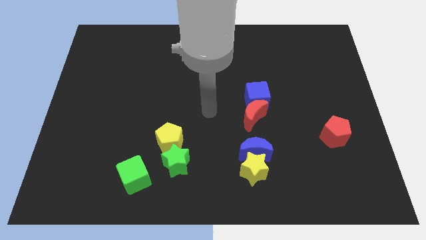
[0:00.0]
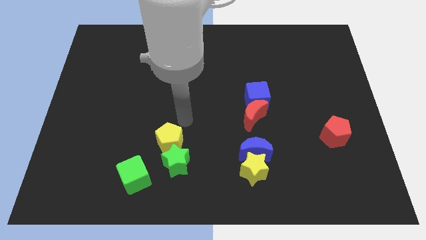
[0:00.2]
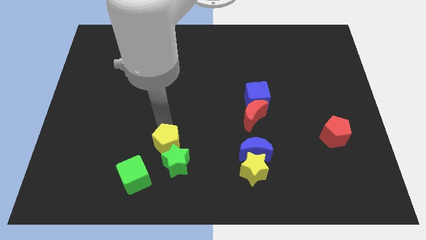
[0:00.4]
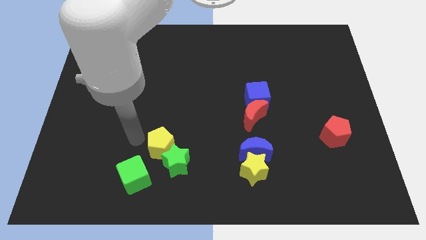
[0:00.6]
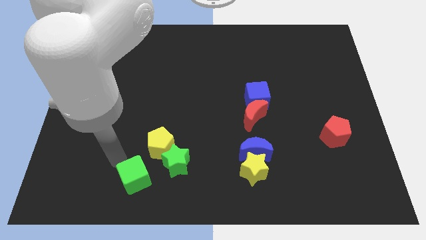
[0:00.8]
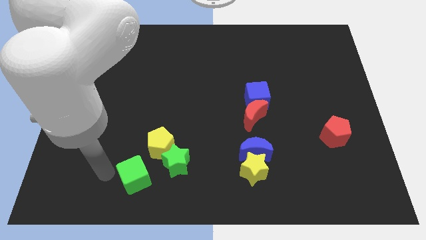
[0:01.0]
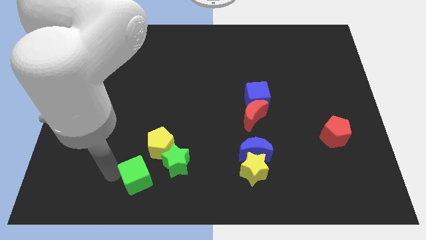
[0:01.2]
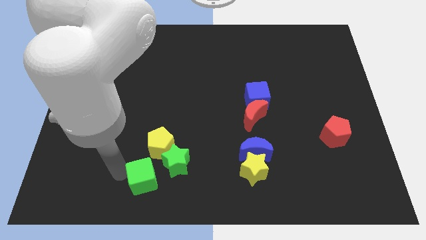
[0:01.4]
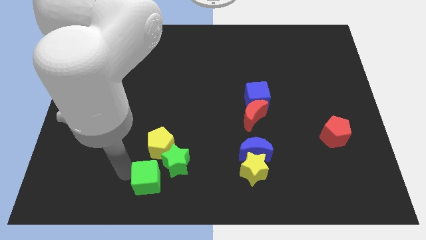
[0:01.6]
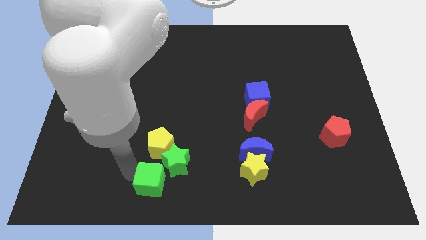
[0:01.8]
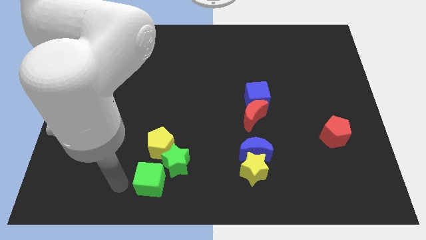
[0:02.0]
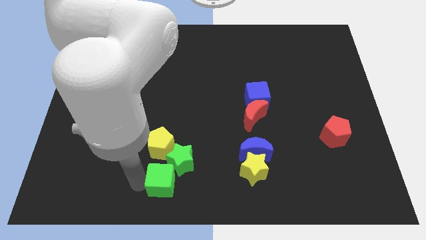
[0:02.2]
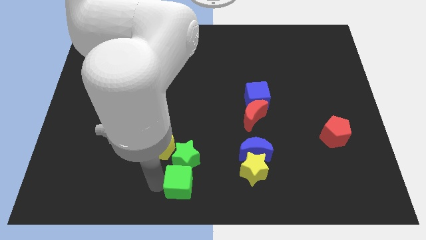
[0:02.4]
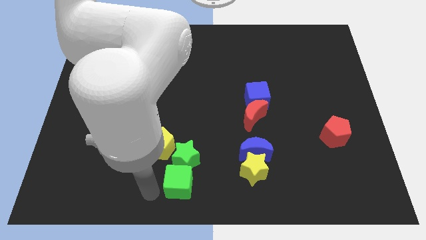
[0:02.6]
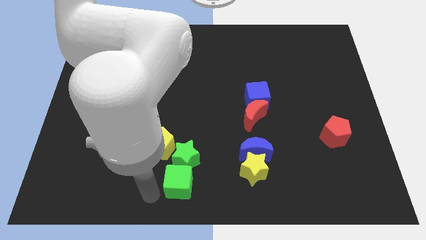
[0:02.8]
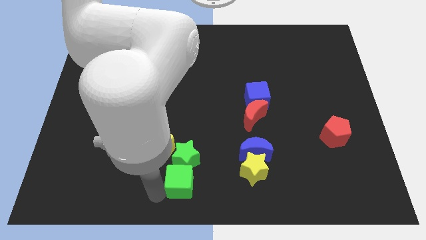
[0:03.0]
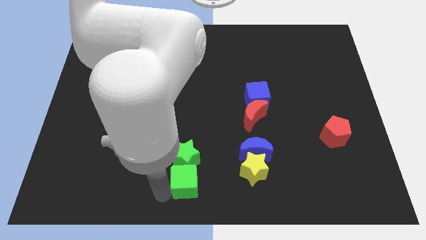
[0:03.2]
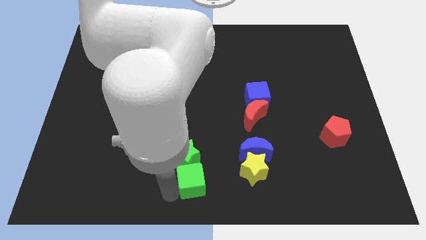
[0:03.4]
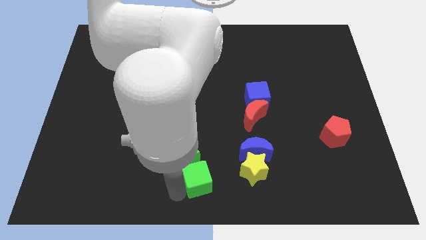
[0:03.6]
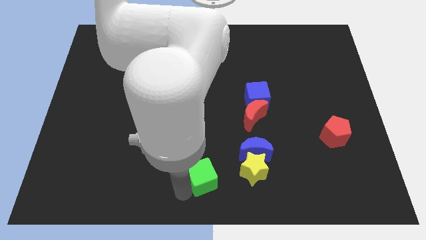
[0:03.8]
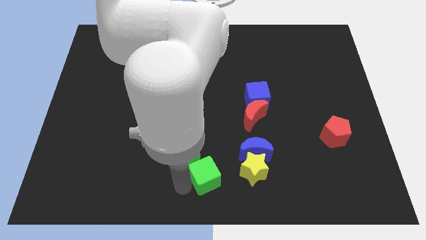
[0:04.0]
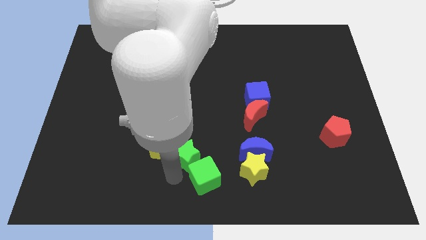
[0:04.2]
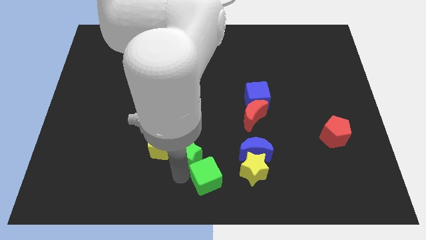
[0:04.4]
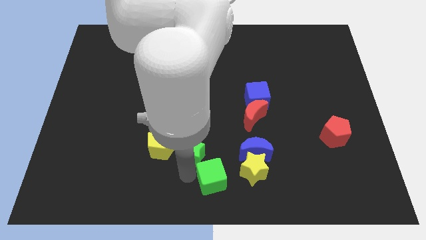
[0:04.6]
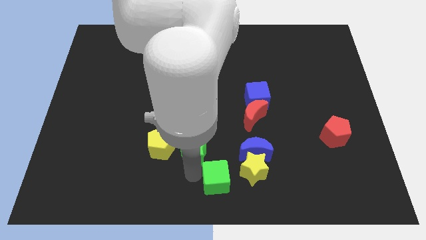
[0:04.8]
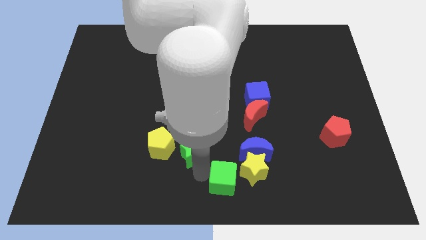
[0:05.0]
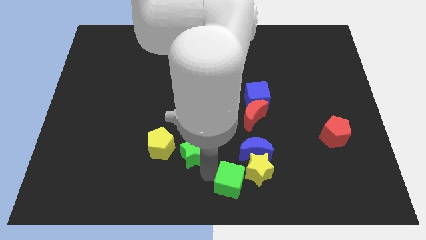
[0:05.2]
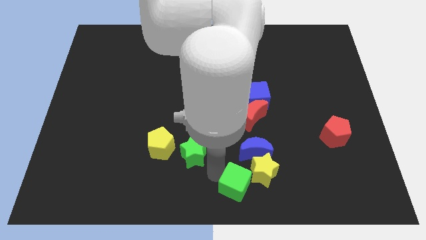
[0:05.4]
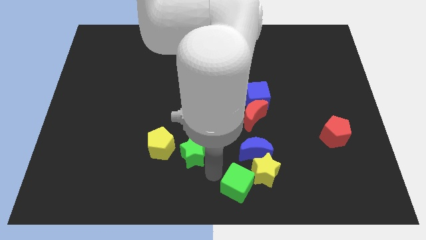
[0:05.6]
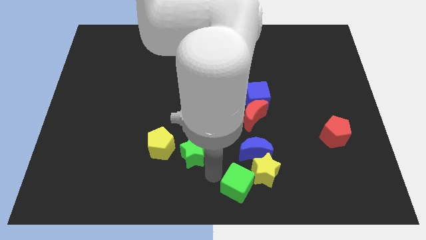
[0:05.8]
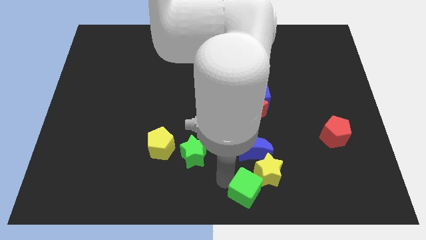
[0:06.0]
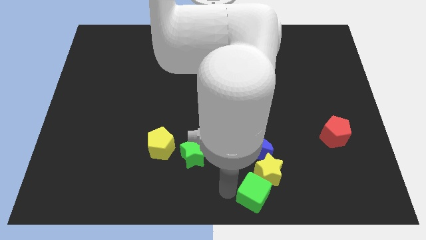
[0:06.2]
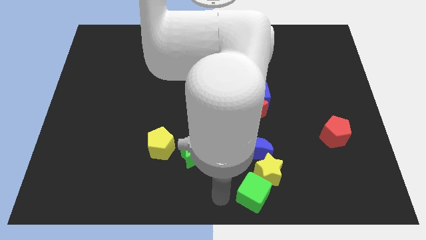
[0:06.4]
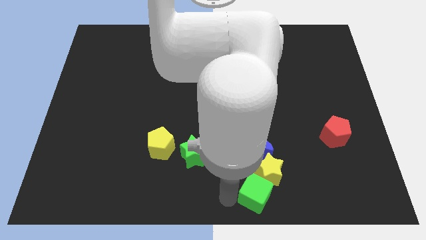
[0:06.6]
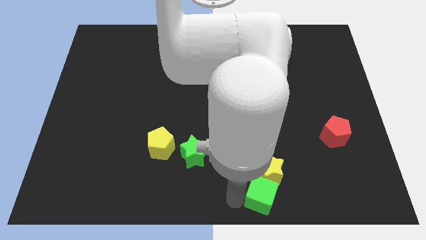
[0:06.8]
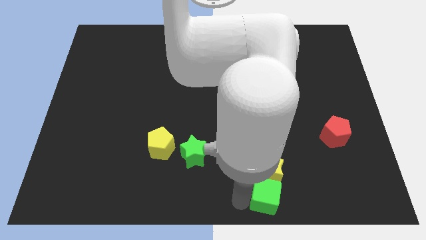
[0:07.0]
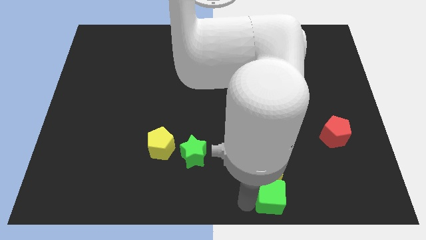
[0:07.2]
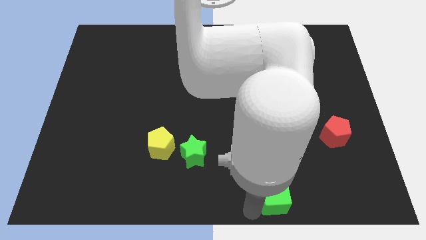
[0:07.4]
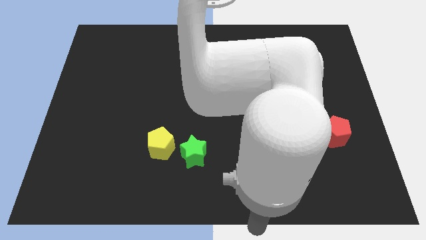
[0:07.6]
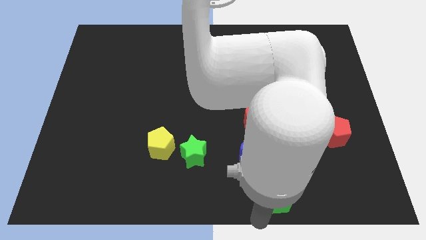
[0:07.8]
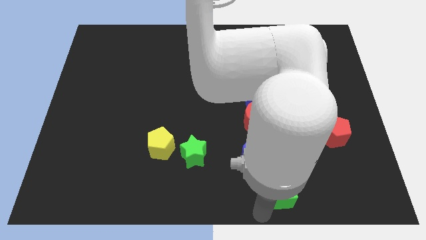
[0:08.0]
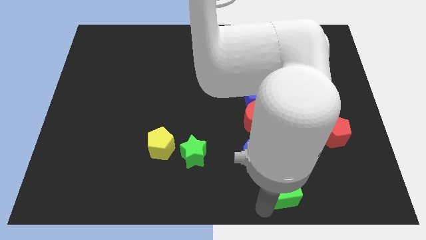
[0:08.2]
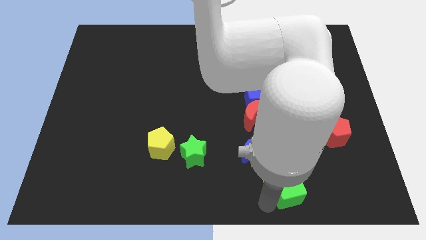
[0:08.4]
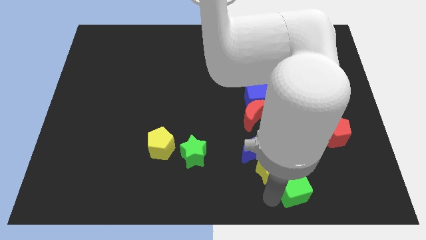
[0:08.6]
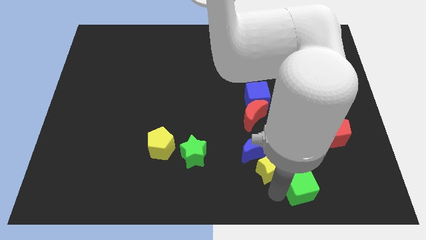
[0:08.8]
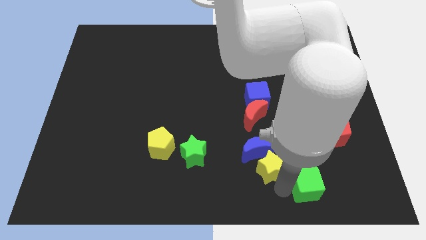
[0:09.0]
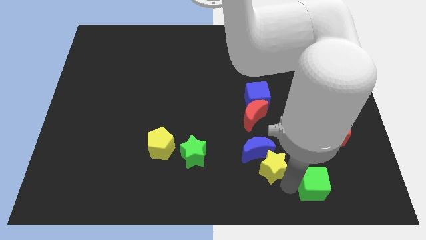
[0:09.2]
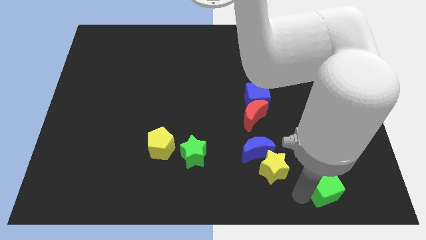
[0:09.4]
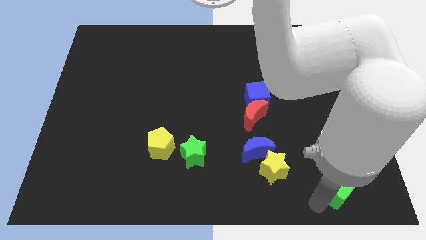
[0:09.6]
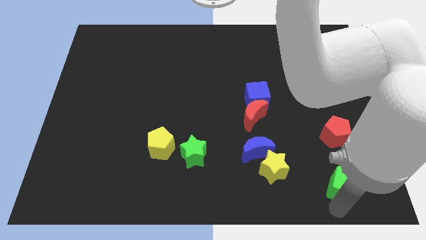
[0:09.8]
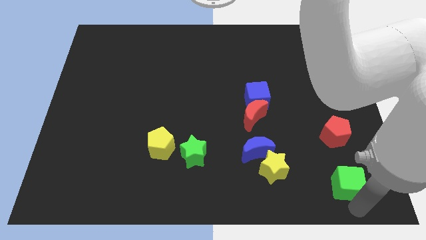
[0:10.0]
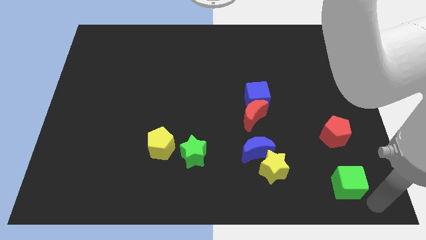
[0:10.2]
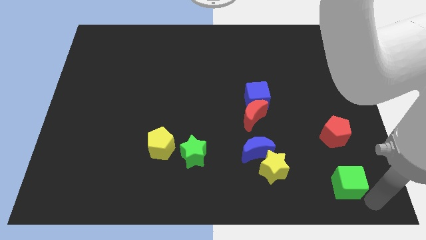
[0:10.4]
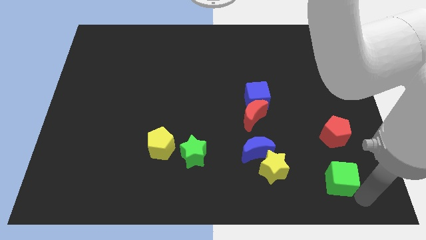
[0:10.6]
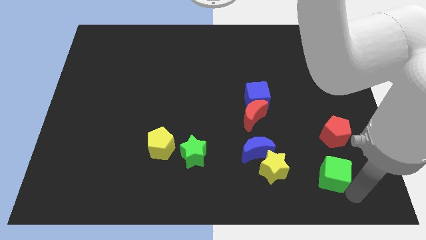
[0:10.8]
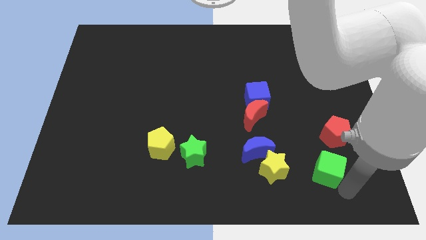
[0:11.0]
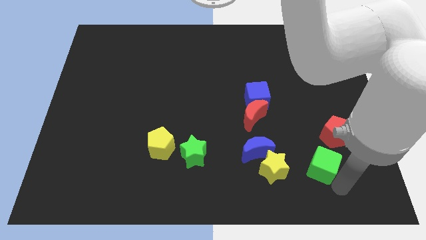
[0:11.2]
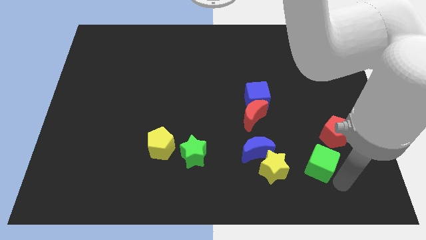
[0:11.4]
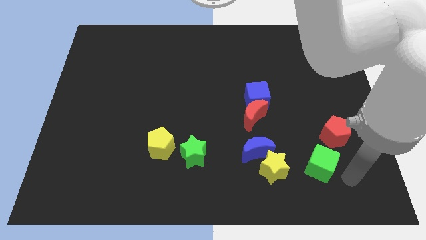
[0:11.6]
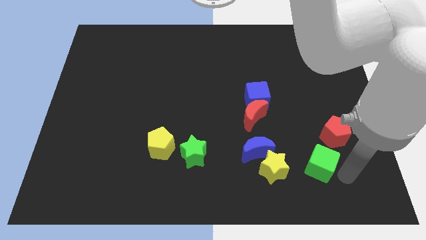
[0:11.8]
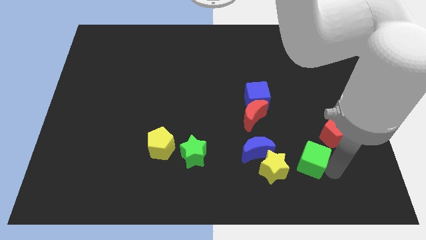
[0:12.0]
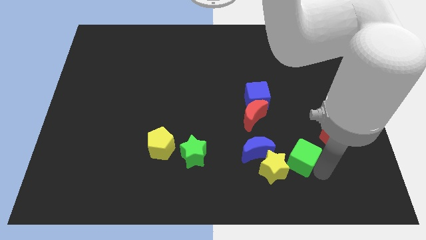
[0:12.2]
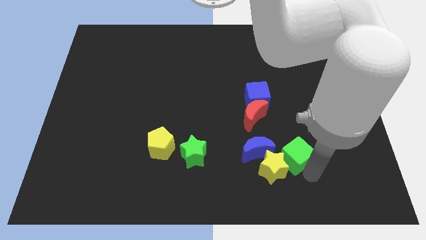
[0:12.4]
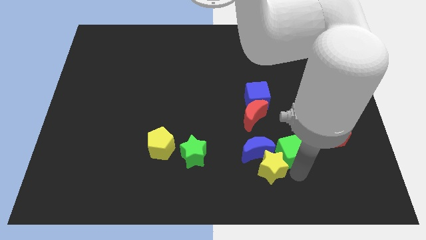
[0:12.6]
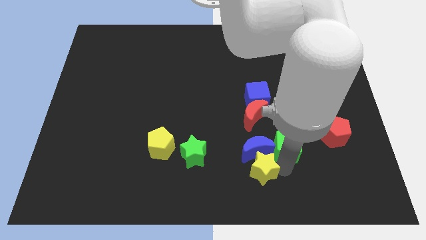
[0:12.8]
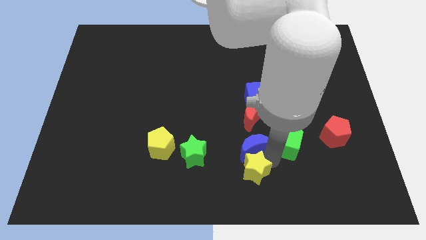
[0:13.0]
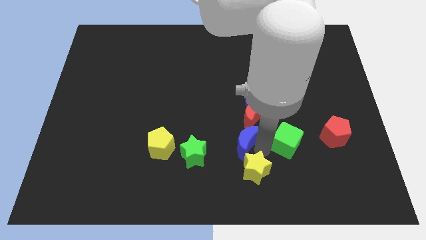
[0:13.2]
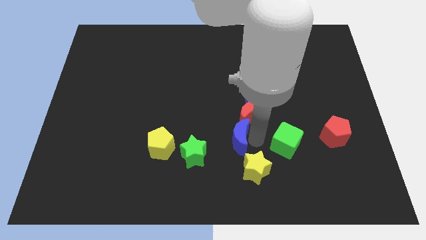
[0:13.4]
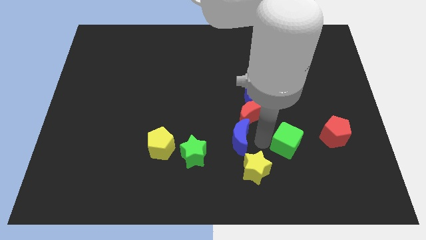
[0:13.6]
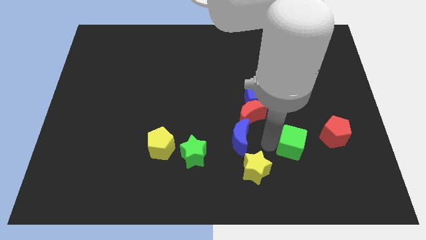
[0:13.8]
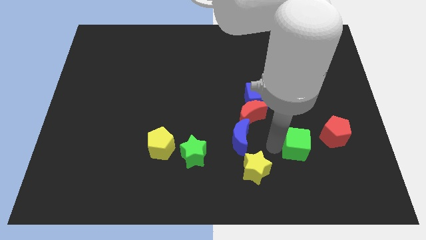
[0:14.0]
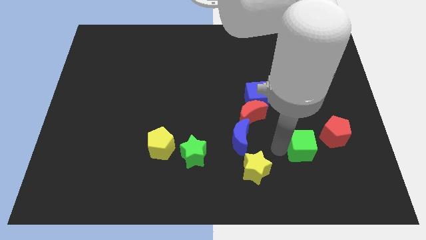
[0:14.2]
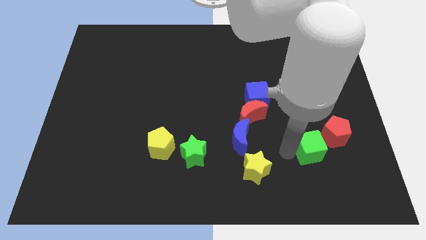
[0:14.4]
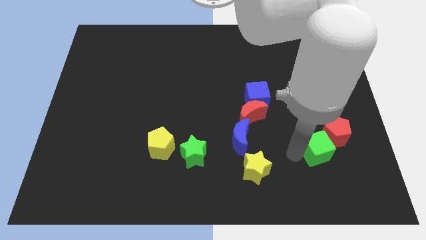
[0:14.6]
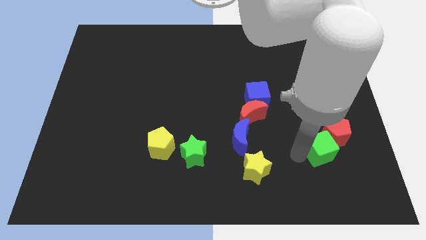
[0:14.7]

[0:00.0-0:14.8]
move the green cube towards the red pentagon

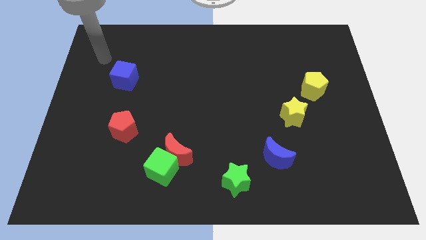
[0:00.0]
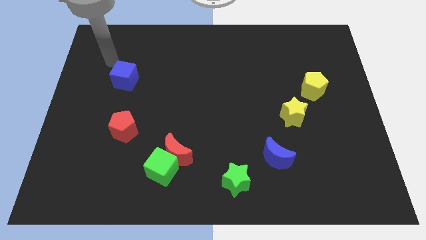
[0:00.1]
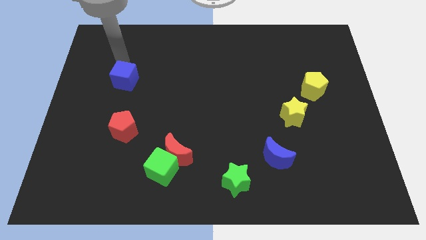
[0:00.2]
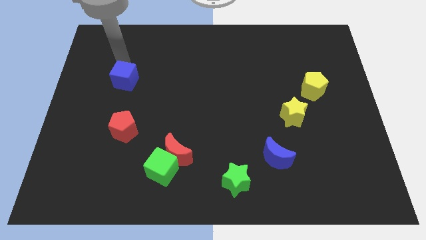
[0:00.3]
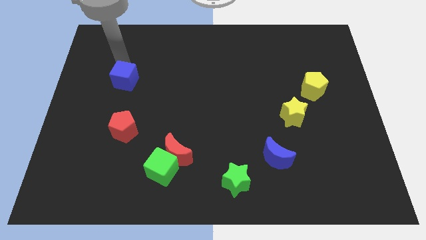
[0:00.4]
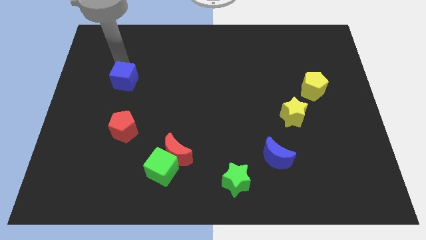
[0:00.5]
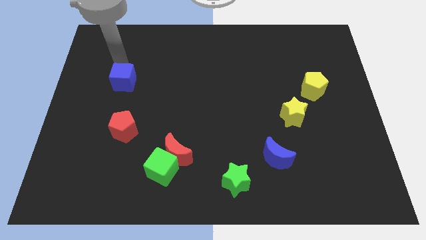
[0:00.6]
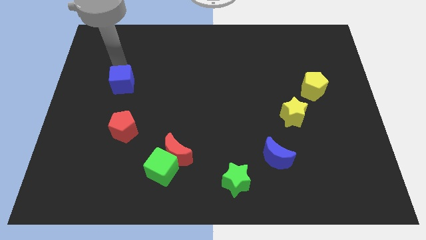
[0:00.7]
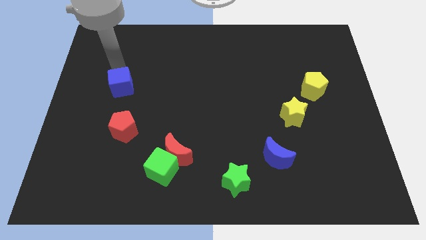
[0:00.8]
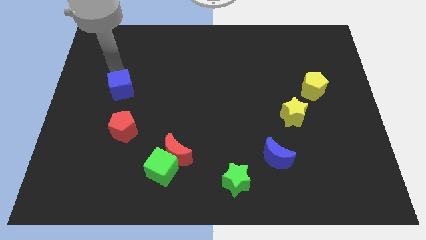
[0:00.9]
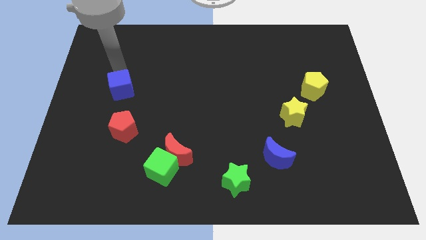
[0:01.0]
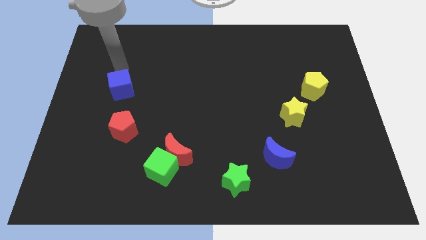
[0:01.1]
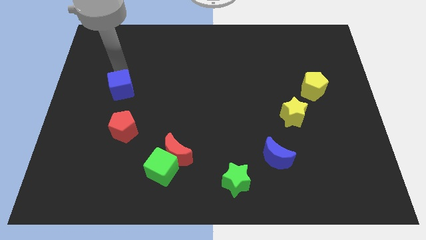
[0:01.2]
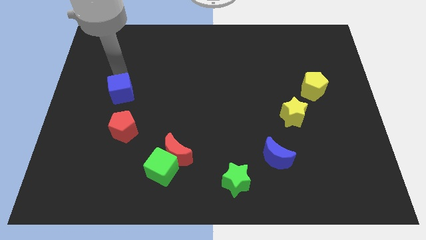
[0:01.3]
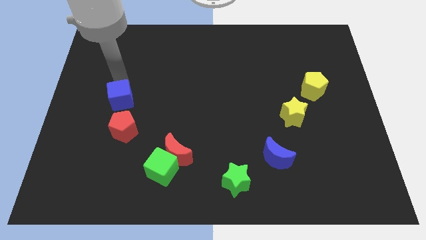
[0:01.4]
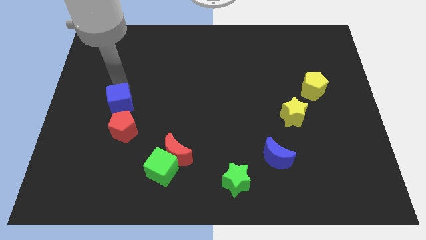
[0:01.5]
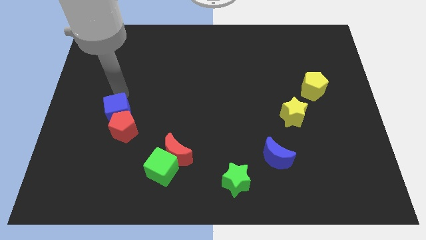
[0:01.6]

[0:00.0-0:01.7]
put the blue cube towards the red pentagon
